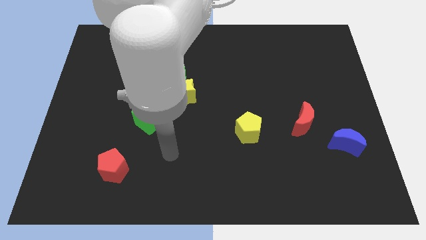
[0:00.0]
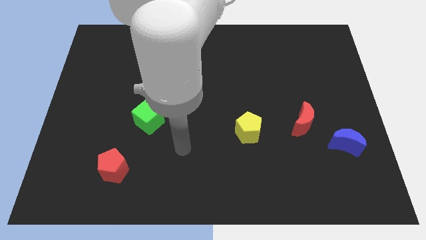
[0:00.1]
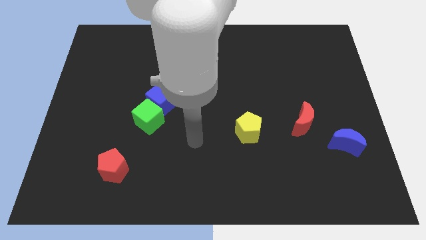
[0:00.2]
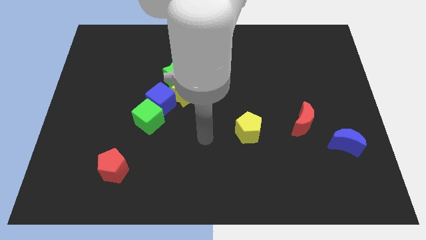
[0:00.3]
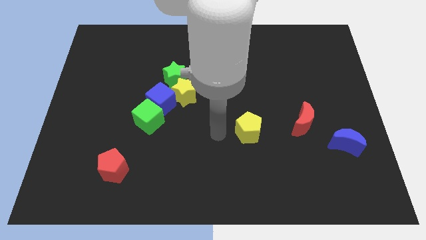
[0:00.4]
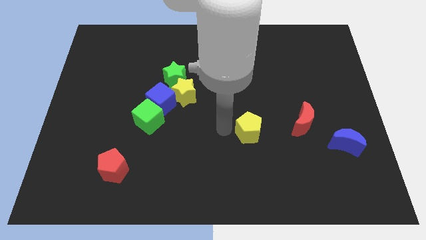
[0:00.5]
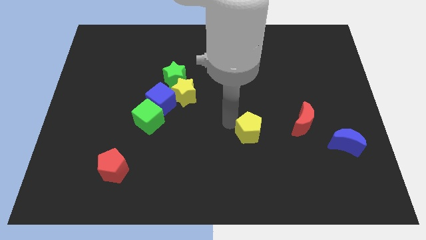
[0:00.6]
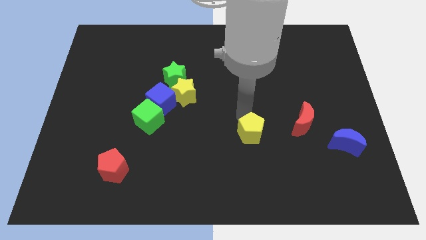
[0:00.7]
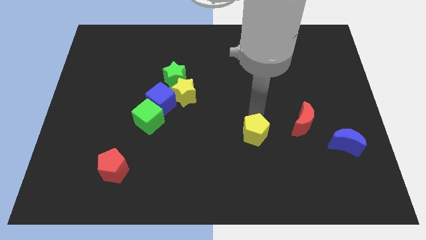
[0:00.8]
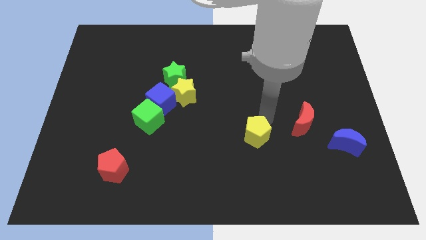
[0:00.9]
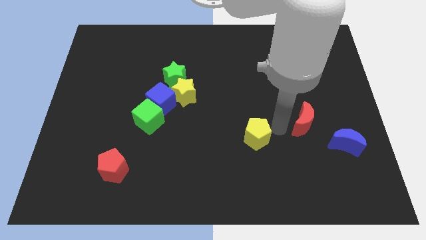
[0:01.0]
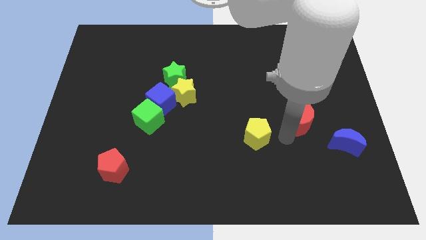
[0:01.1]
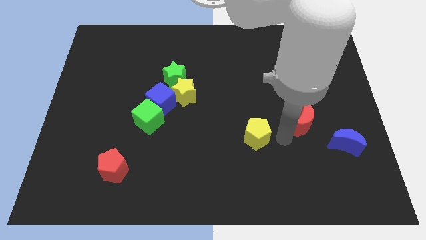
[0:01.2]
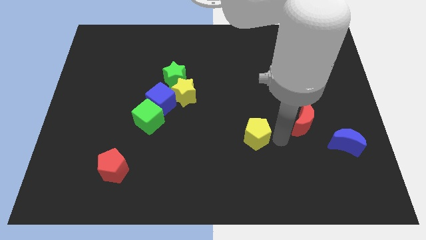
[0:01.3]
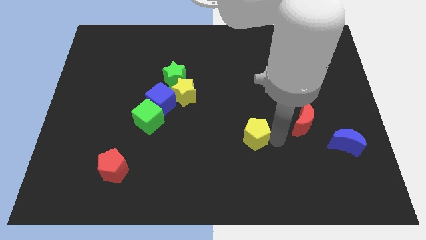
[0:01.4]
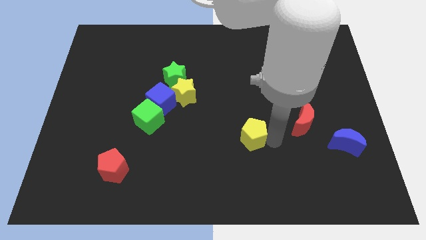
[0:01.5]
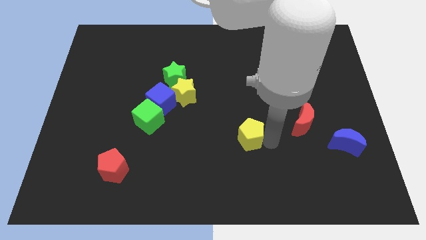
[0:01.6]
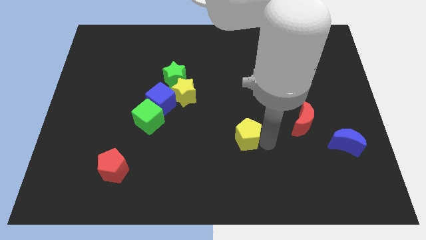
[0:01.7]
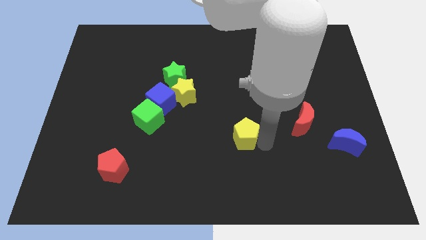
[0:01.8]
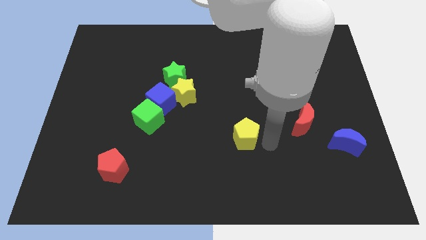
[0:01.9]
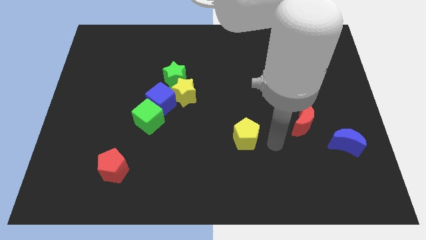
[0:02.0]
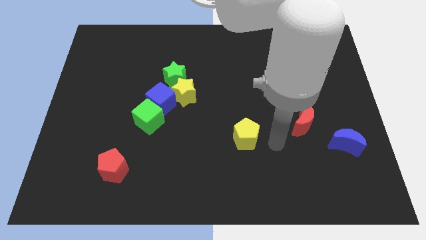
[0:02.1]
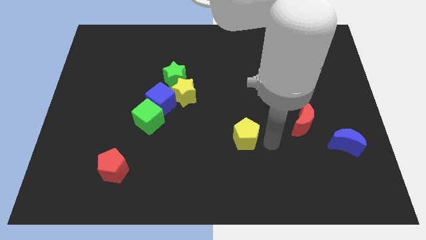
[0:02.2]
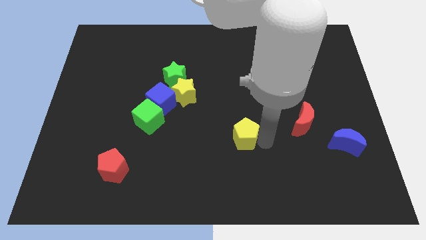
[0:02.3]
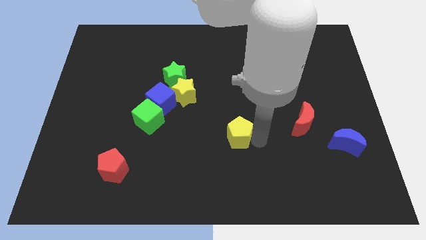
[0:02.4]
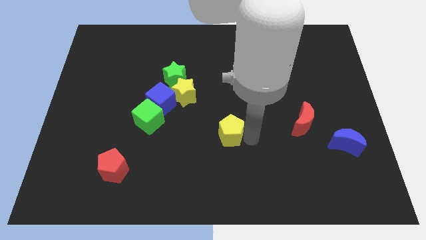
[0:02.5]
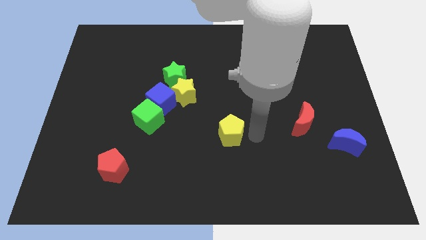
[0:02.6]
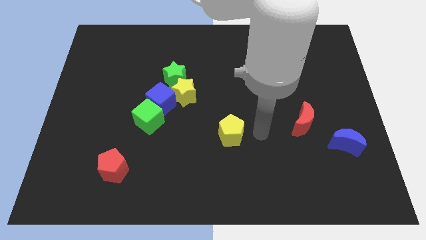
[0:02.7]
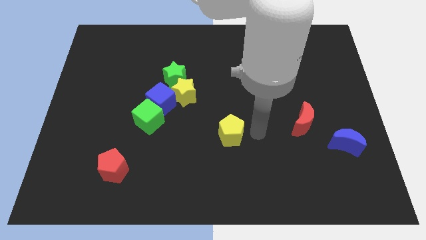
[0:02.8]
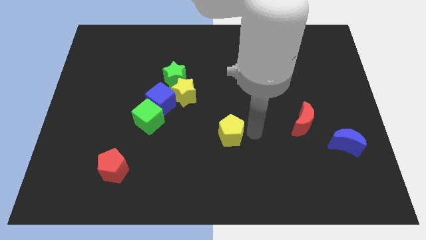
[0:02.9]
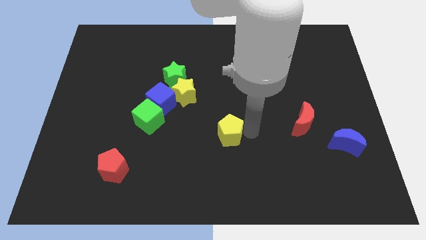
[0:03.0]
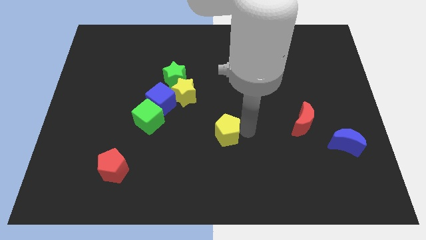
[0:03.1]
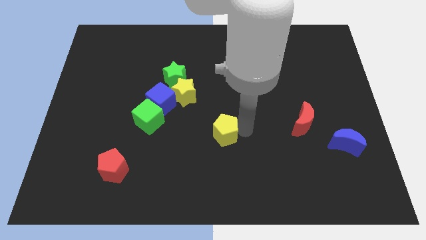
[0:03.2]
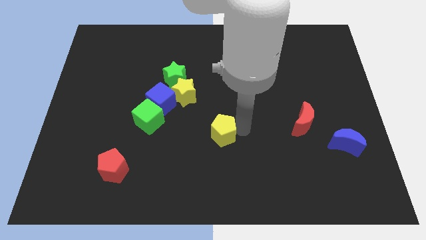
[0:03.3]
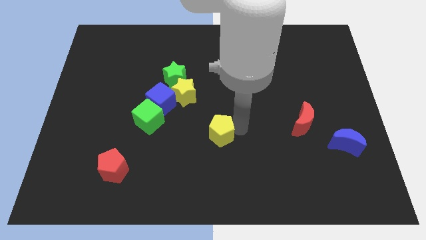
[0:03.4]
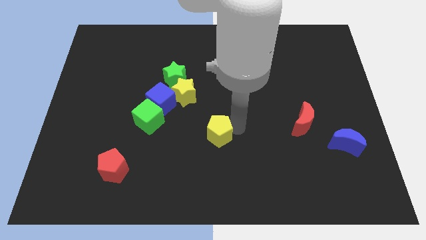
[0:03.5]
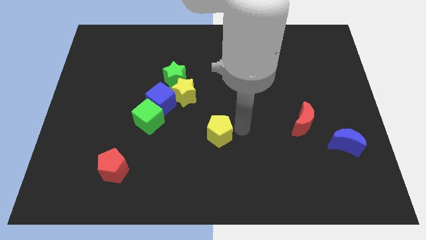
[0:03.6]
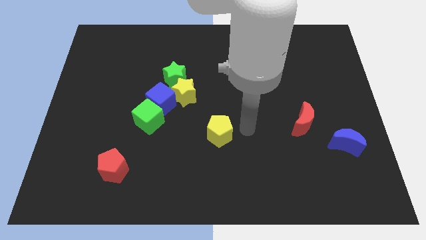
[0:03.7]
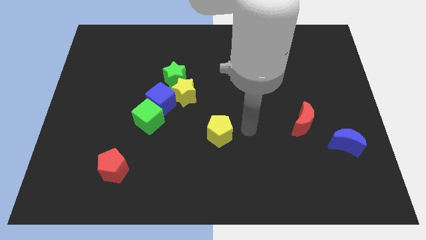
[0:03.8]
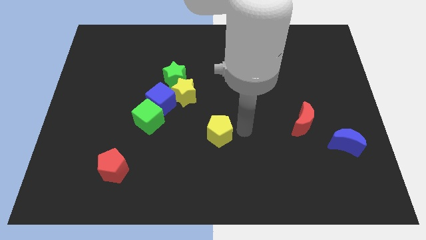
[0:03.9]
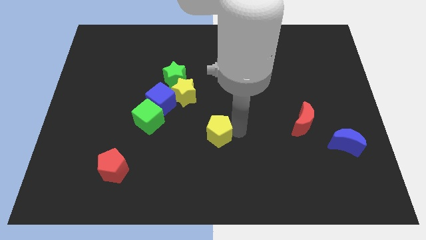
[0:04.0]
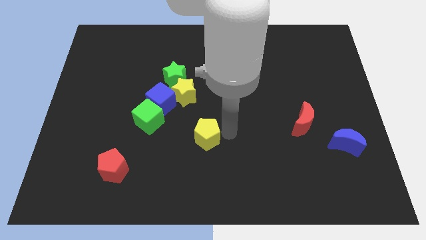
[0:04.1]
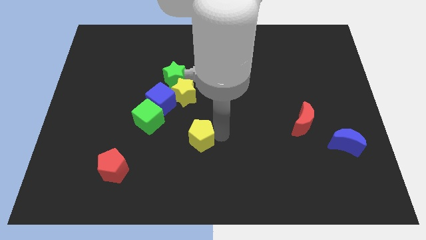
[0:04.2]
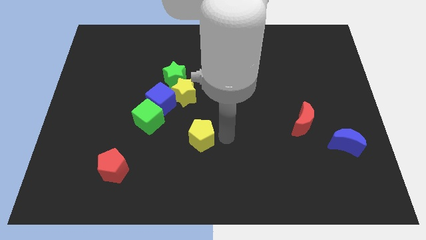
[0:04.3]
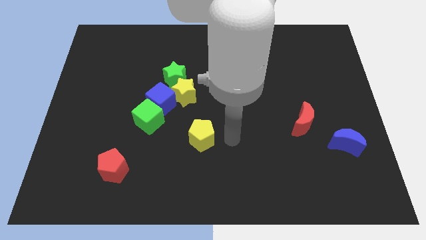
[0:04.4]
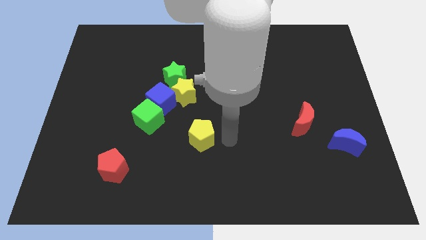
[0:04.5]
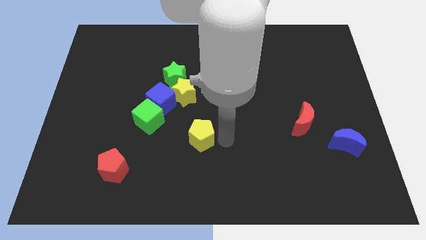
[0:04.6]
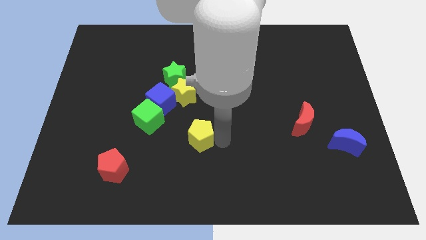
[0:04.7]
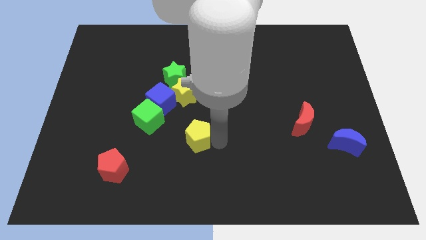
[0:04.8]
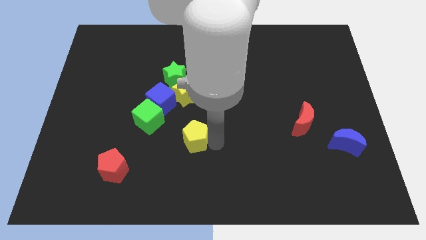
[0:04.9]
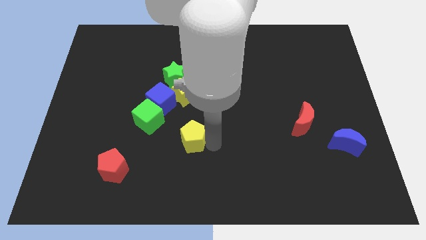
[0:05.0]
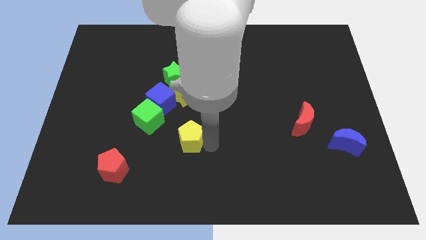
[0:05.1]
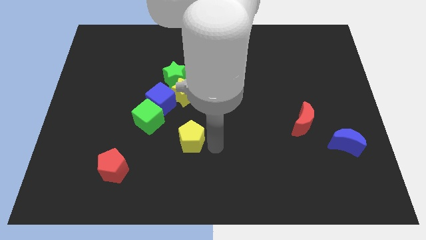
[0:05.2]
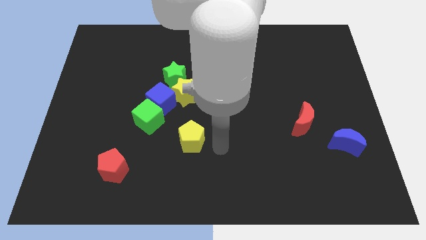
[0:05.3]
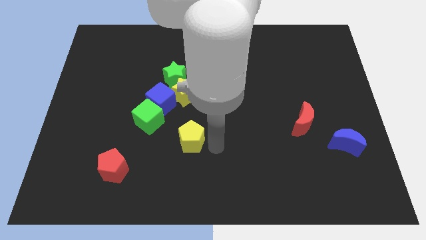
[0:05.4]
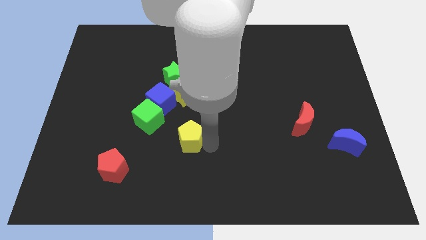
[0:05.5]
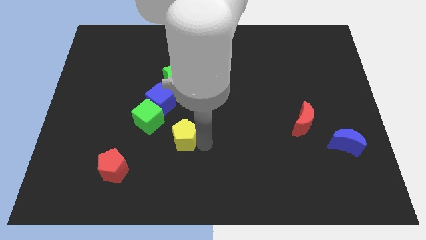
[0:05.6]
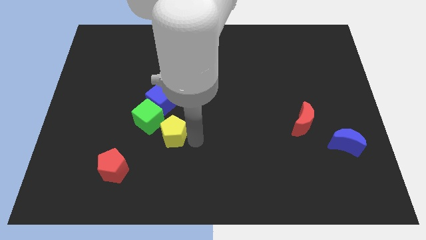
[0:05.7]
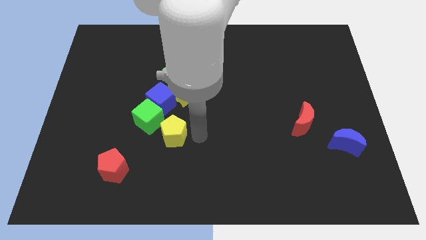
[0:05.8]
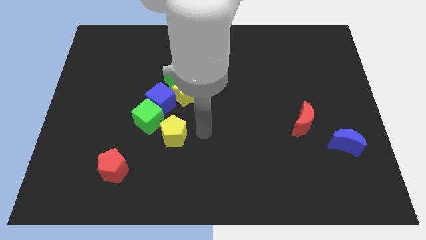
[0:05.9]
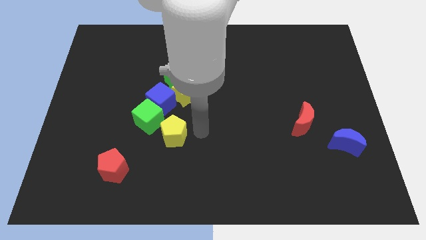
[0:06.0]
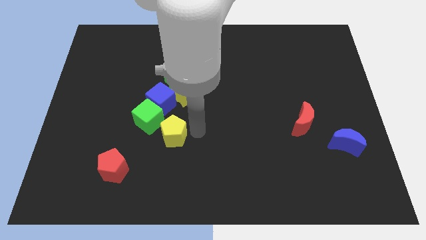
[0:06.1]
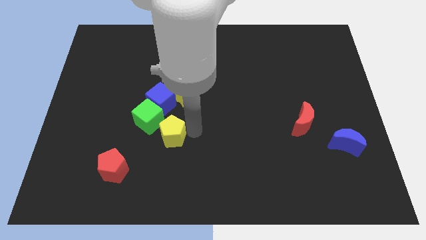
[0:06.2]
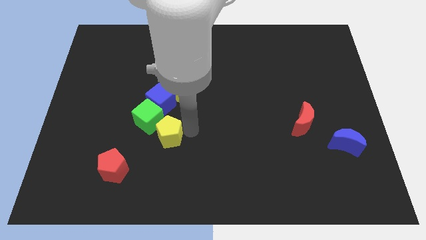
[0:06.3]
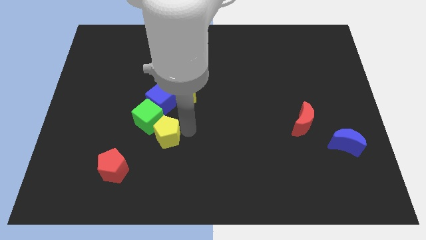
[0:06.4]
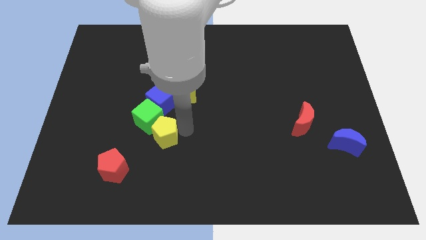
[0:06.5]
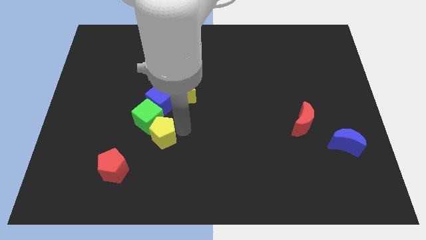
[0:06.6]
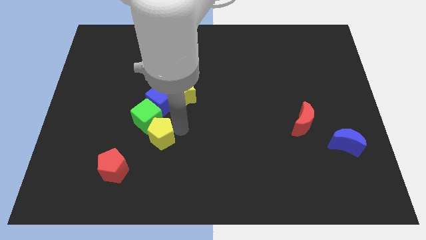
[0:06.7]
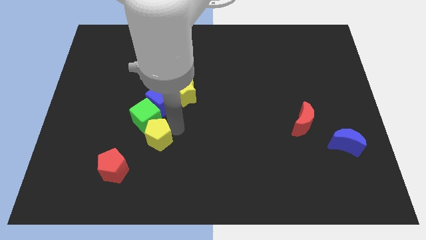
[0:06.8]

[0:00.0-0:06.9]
push the yellow pentagon to the left

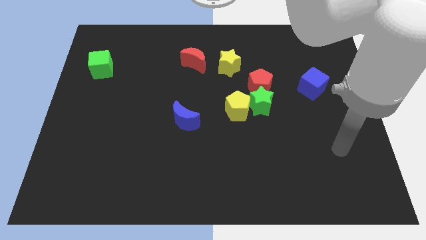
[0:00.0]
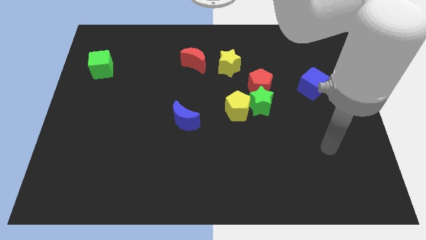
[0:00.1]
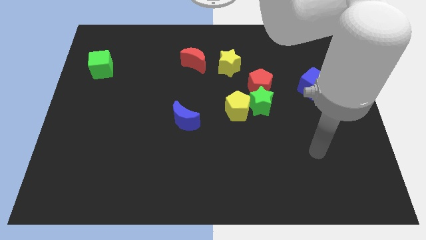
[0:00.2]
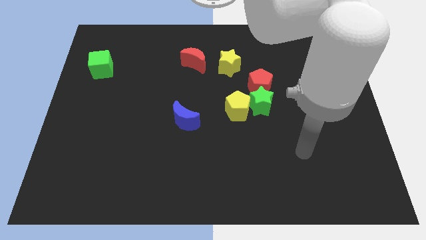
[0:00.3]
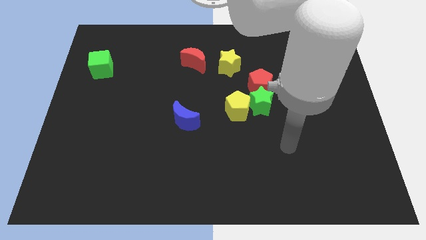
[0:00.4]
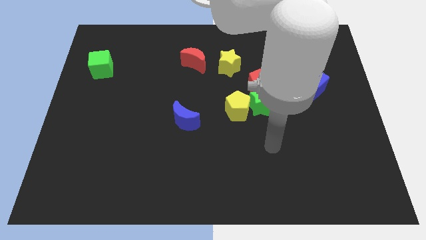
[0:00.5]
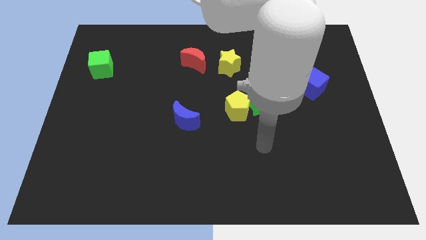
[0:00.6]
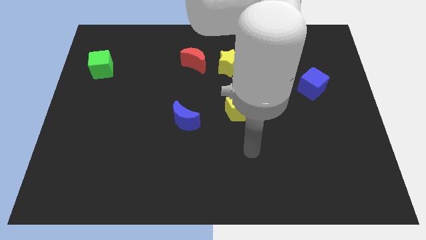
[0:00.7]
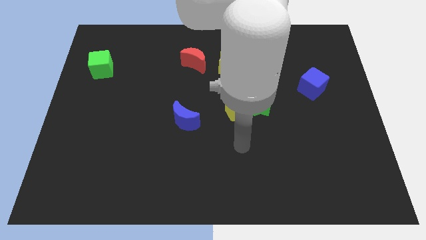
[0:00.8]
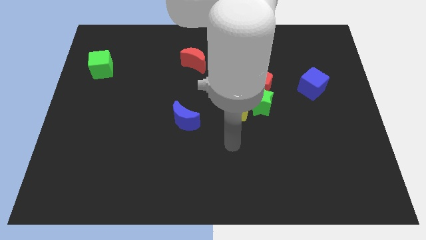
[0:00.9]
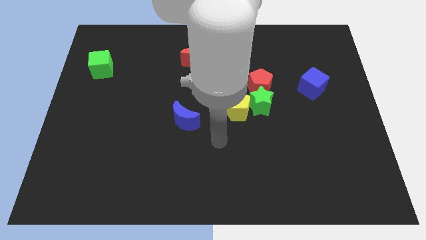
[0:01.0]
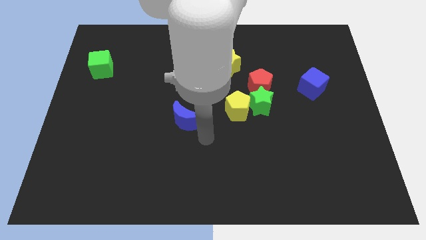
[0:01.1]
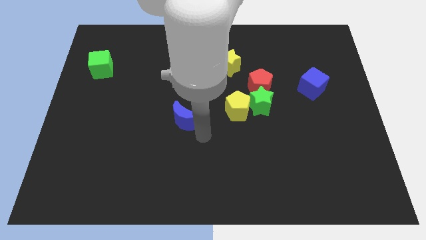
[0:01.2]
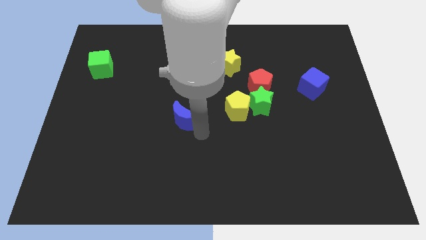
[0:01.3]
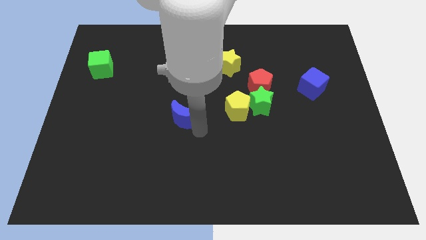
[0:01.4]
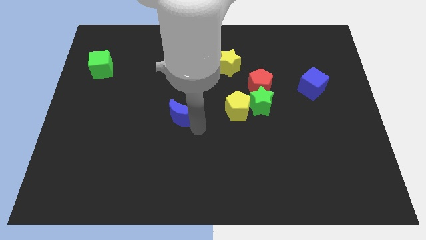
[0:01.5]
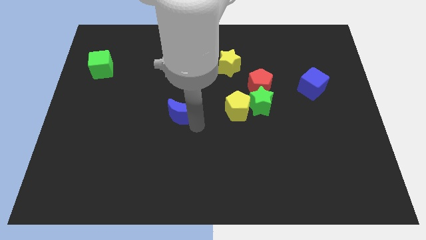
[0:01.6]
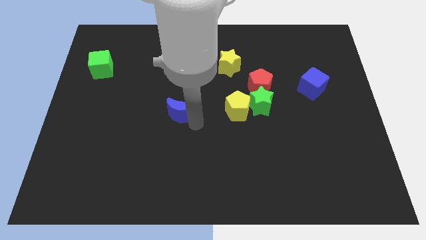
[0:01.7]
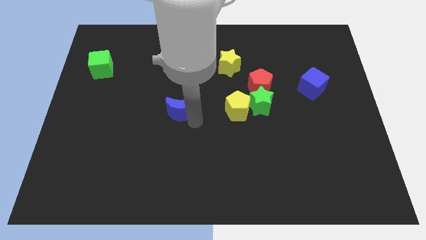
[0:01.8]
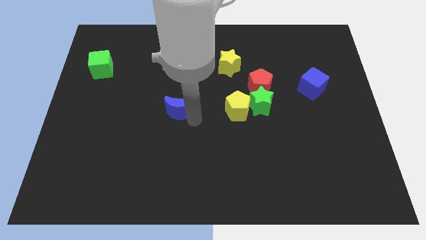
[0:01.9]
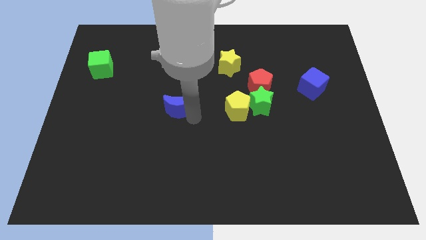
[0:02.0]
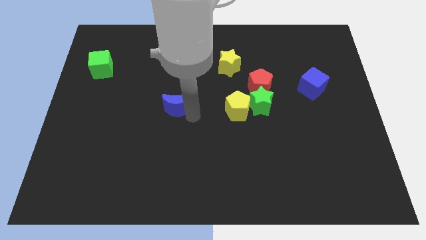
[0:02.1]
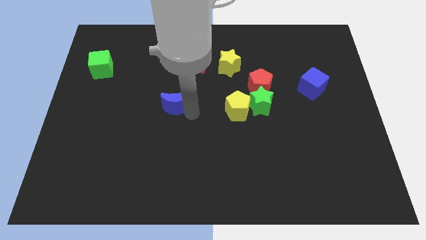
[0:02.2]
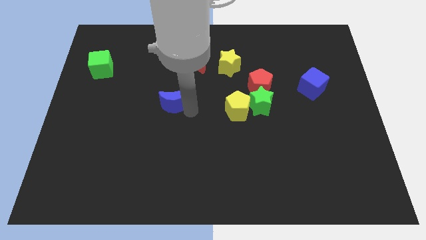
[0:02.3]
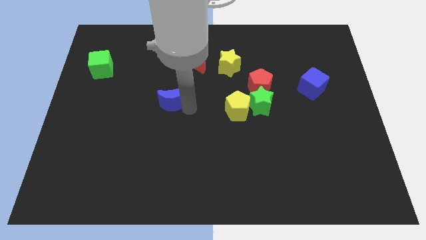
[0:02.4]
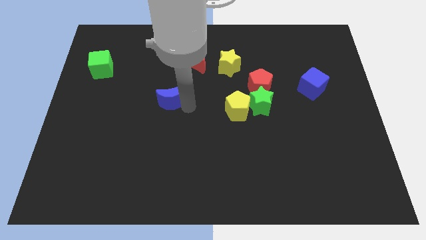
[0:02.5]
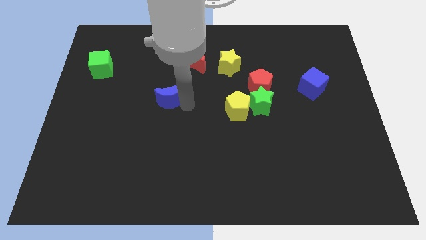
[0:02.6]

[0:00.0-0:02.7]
slightly push the blue moon upwards and then to the left
